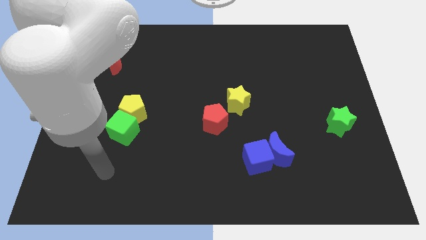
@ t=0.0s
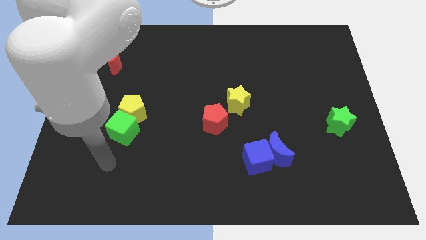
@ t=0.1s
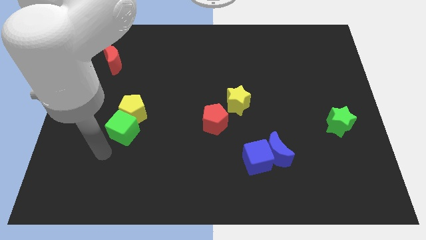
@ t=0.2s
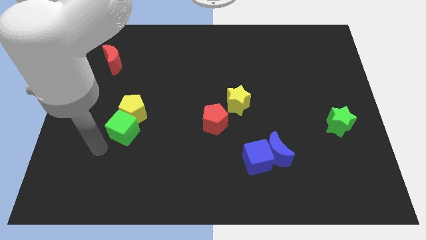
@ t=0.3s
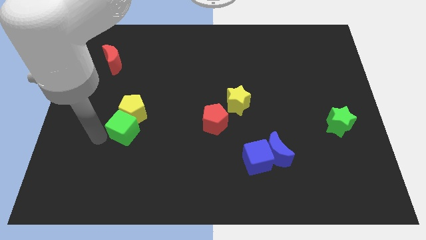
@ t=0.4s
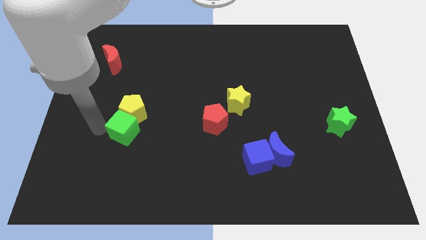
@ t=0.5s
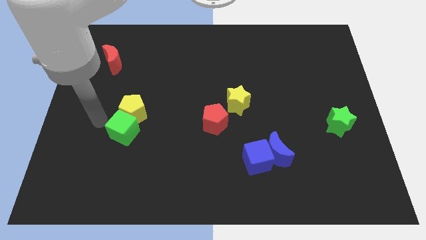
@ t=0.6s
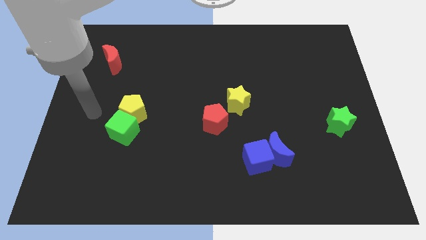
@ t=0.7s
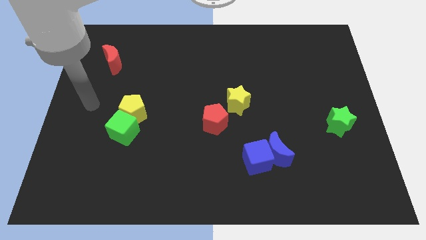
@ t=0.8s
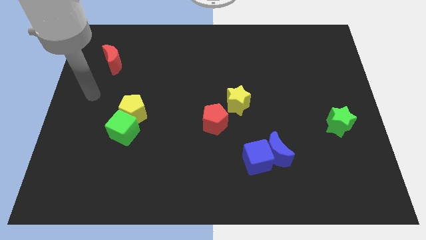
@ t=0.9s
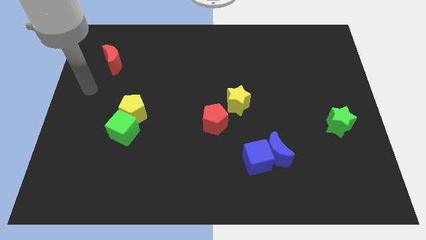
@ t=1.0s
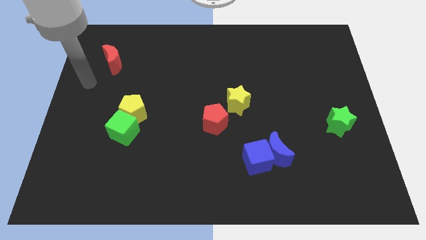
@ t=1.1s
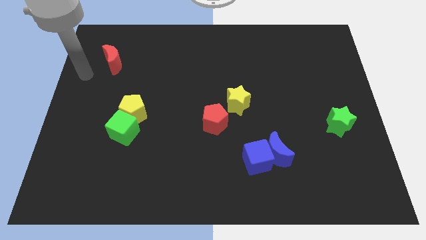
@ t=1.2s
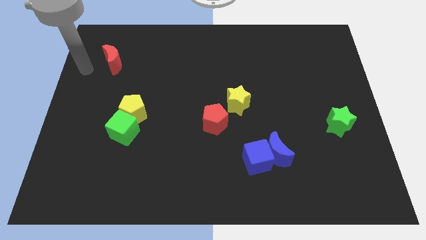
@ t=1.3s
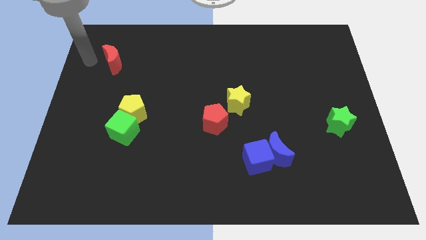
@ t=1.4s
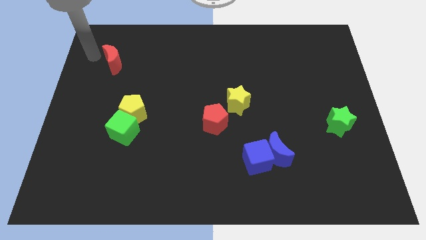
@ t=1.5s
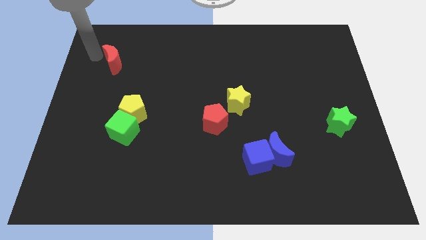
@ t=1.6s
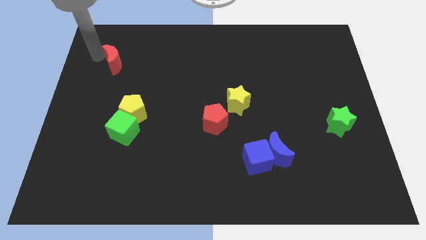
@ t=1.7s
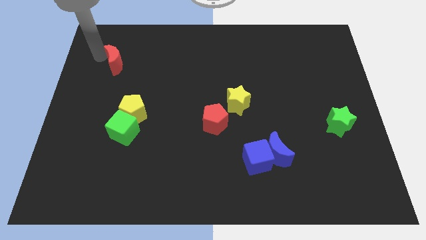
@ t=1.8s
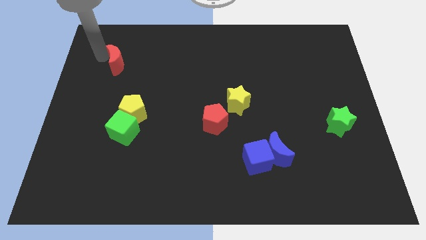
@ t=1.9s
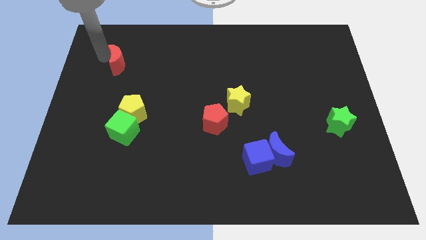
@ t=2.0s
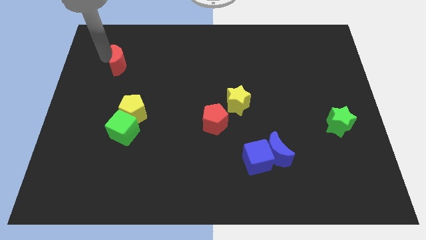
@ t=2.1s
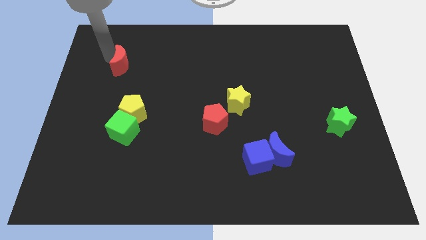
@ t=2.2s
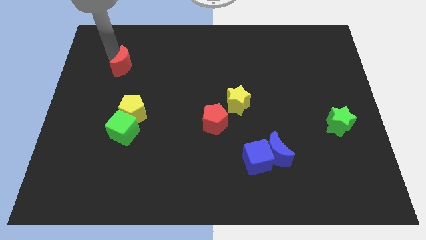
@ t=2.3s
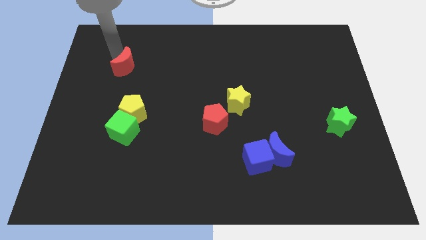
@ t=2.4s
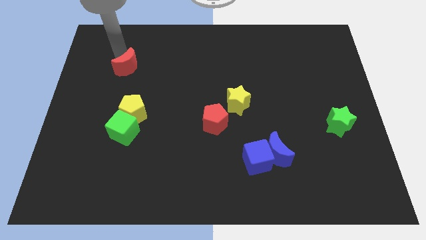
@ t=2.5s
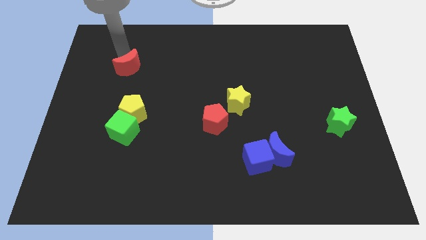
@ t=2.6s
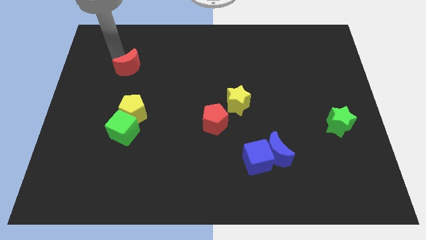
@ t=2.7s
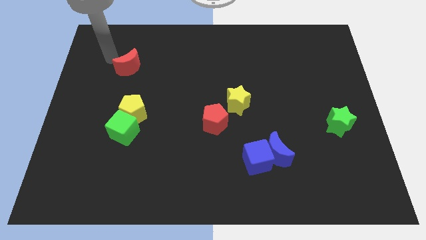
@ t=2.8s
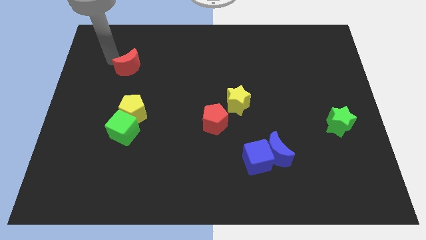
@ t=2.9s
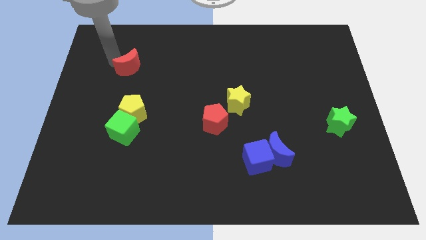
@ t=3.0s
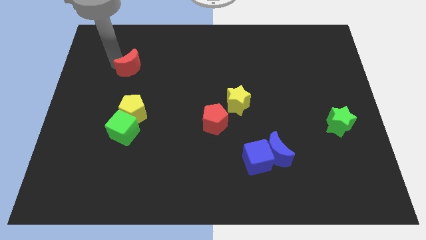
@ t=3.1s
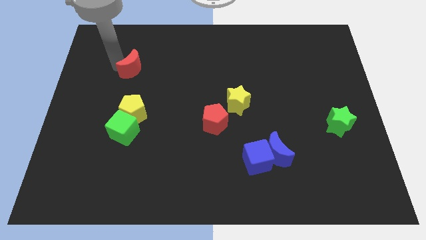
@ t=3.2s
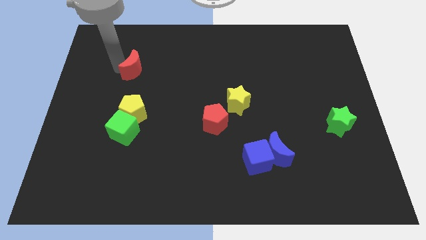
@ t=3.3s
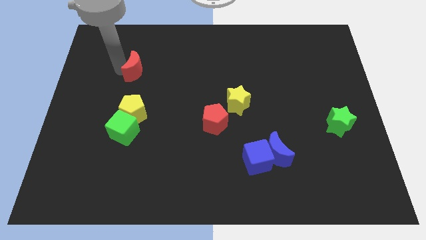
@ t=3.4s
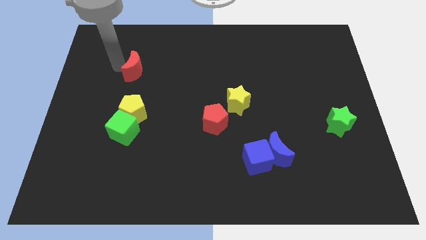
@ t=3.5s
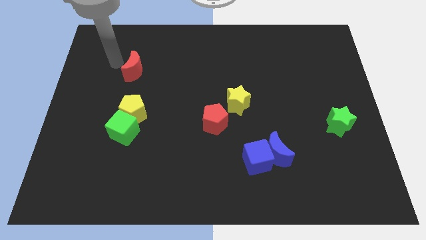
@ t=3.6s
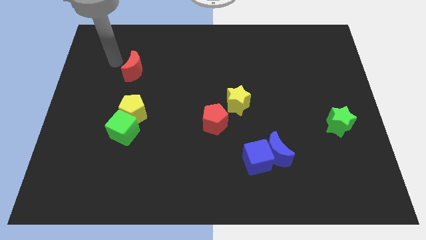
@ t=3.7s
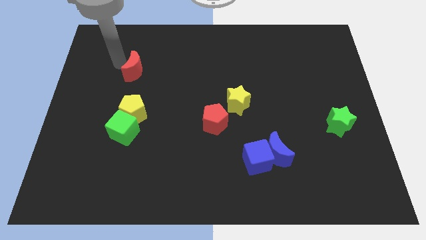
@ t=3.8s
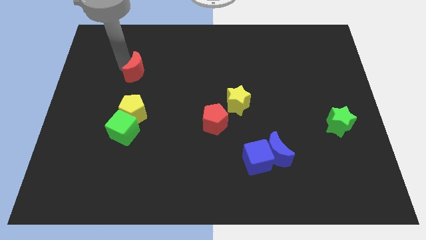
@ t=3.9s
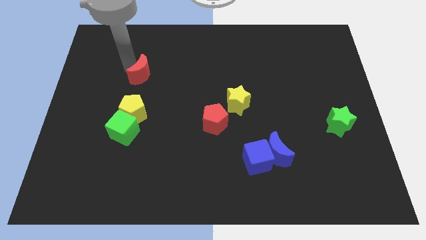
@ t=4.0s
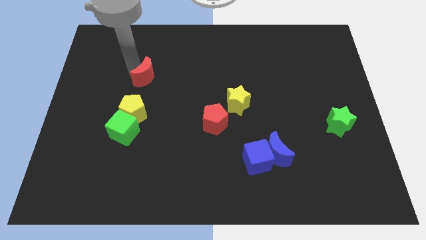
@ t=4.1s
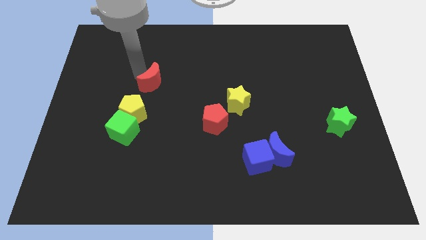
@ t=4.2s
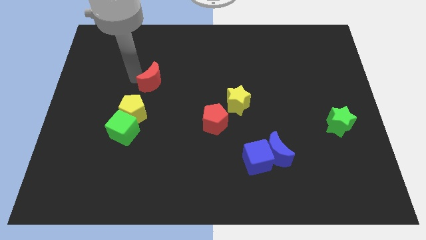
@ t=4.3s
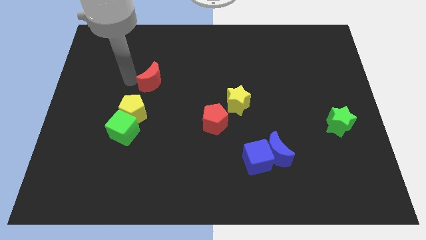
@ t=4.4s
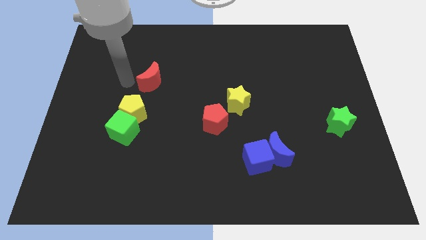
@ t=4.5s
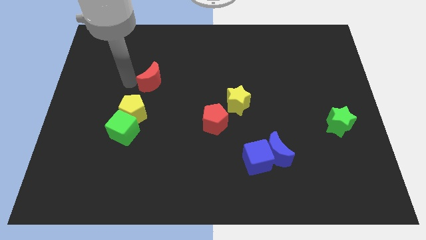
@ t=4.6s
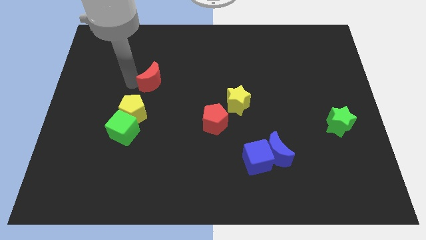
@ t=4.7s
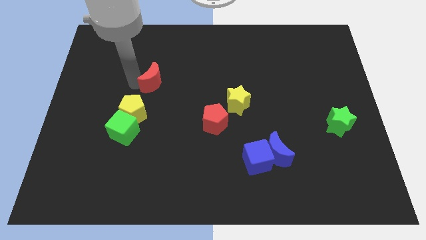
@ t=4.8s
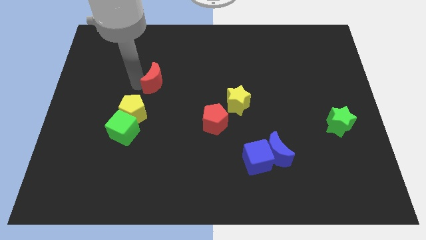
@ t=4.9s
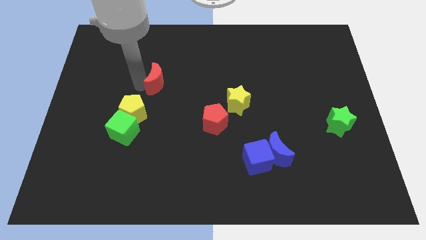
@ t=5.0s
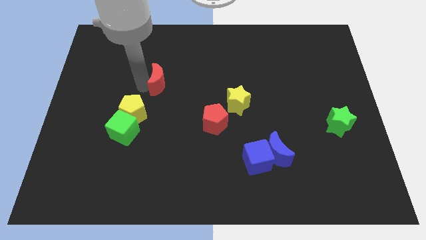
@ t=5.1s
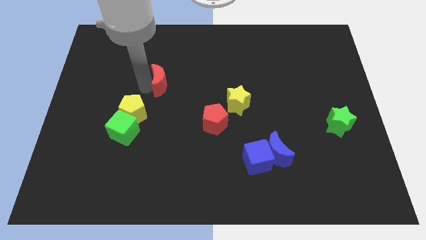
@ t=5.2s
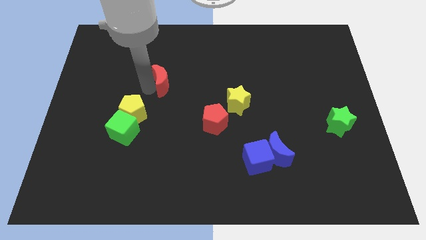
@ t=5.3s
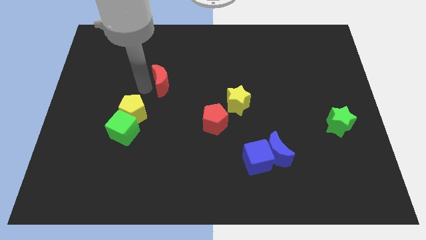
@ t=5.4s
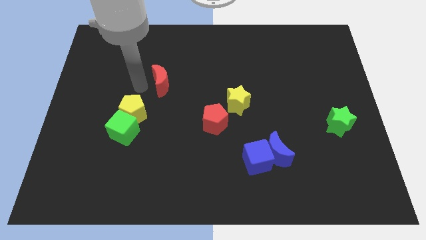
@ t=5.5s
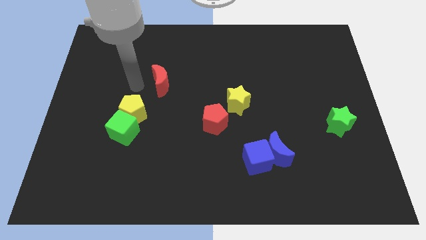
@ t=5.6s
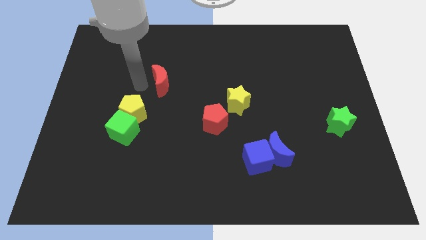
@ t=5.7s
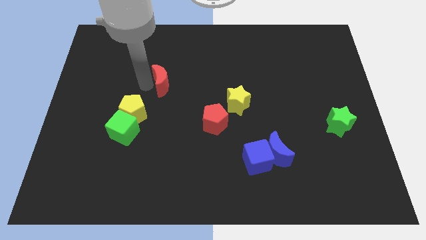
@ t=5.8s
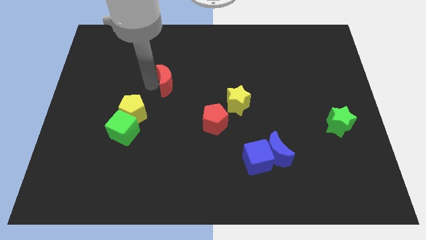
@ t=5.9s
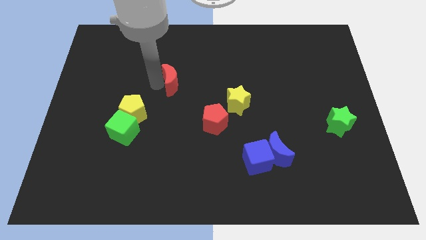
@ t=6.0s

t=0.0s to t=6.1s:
move the red moon to the center

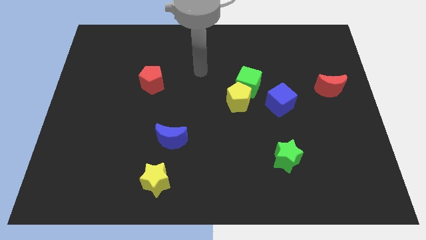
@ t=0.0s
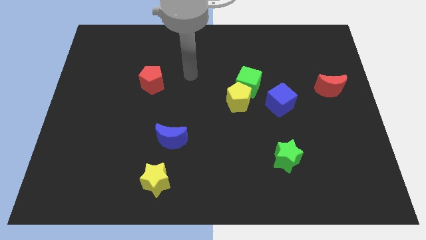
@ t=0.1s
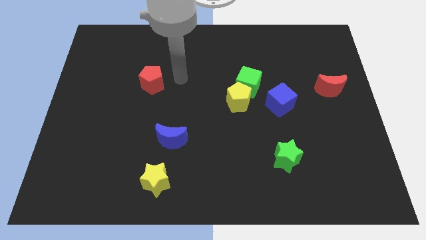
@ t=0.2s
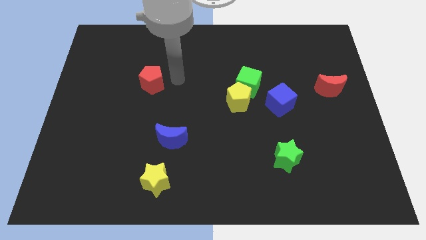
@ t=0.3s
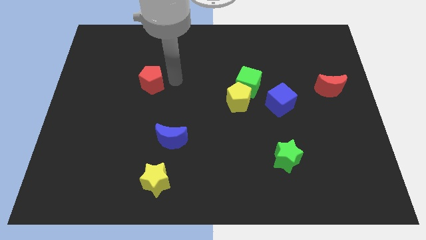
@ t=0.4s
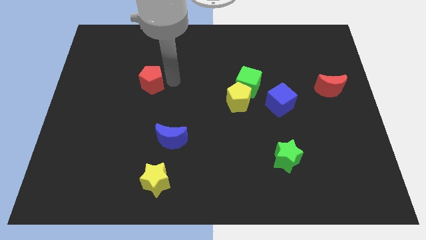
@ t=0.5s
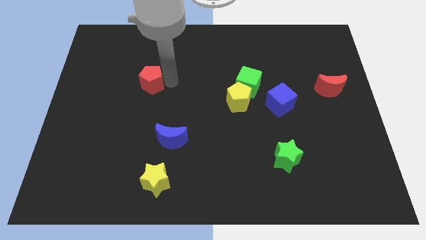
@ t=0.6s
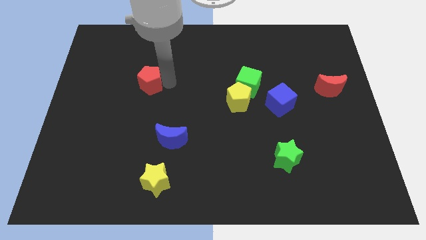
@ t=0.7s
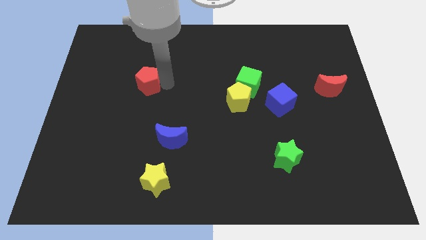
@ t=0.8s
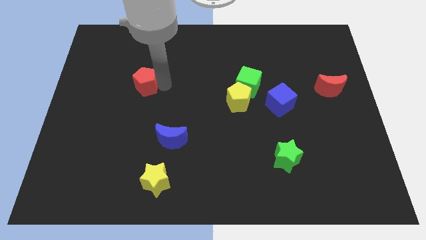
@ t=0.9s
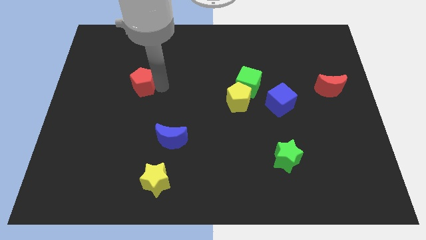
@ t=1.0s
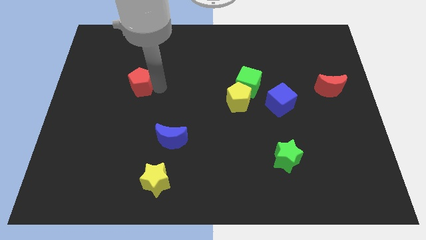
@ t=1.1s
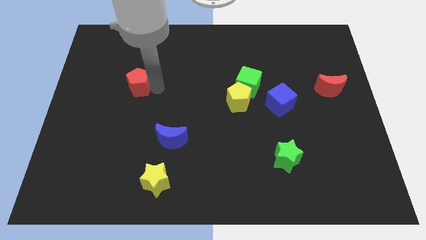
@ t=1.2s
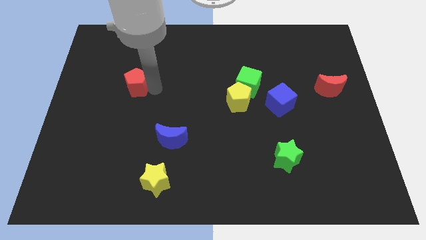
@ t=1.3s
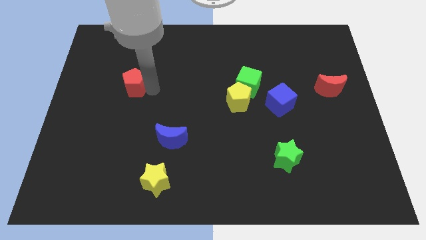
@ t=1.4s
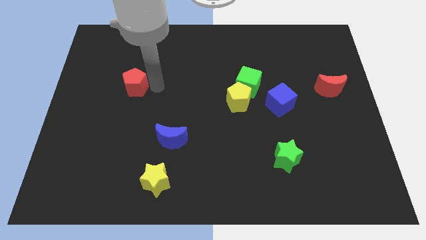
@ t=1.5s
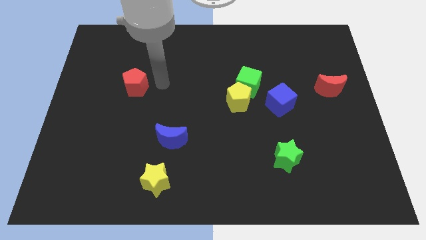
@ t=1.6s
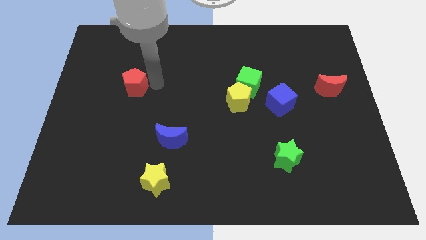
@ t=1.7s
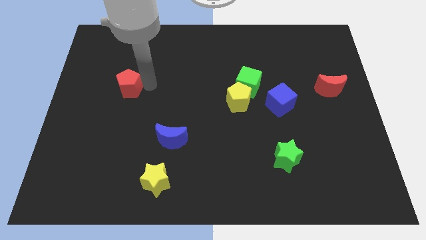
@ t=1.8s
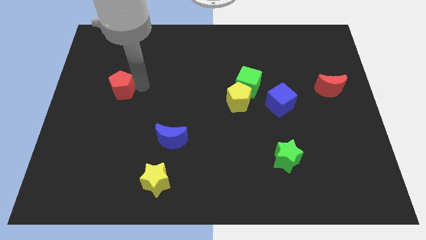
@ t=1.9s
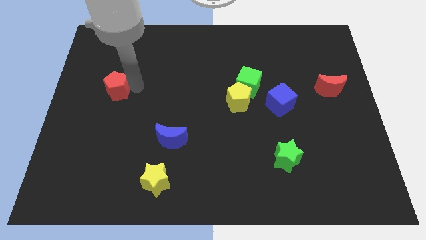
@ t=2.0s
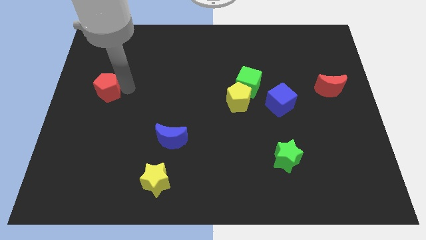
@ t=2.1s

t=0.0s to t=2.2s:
push the red pentagon to the left side of the board
